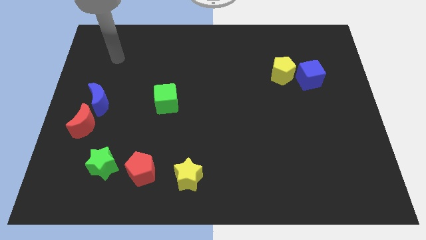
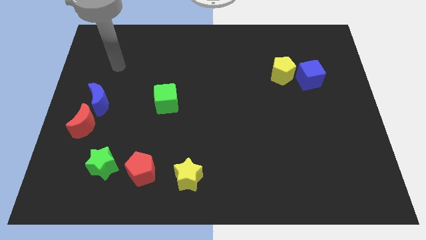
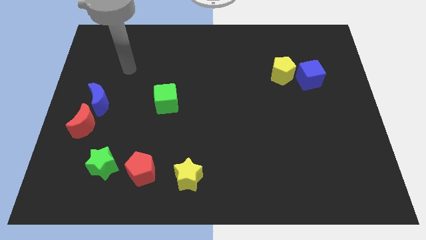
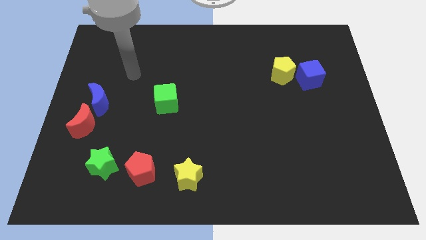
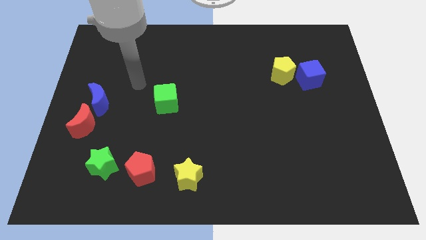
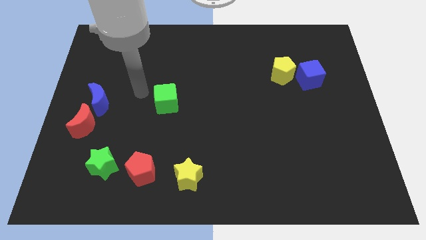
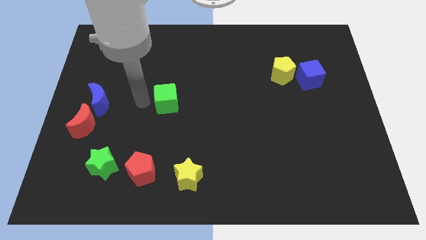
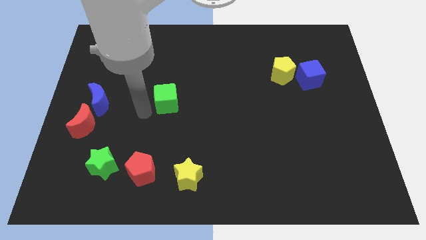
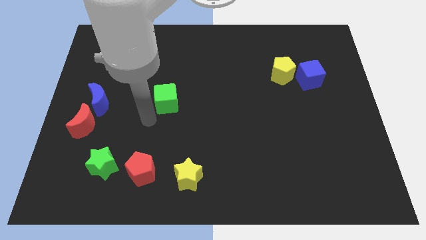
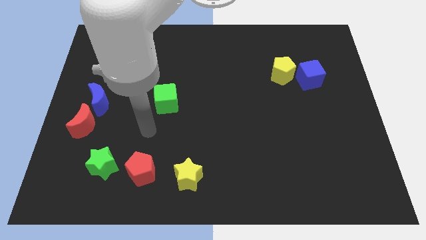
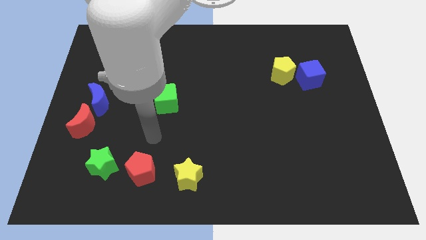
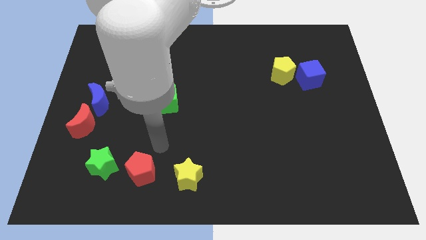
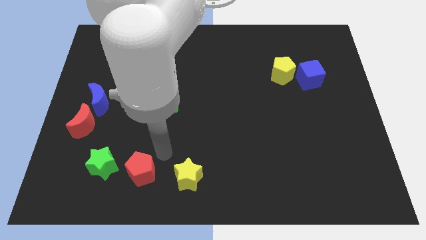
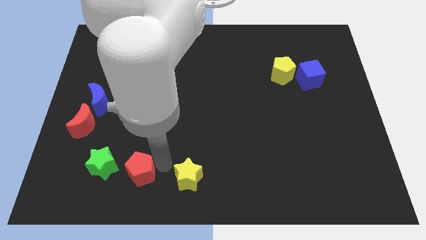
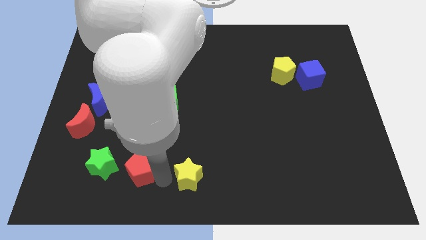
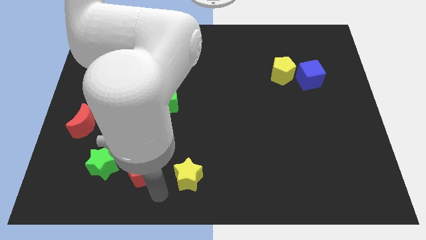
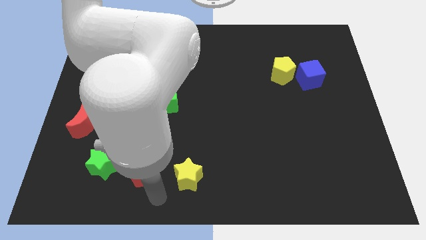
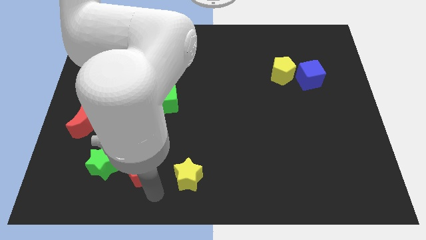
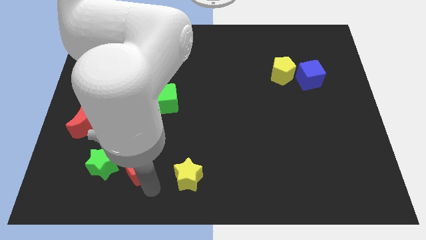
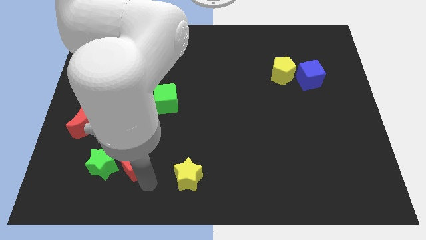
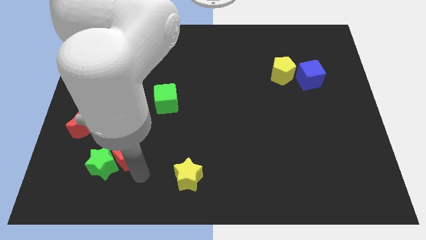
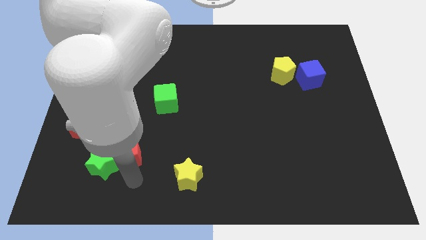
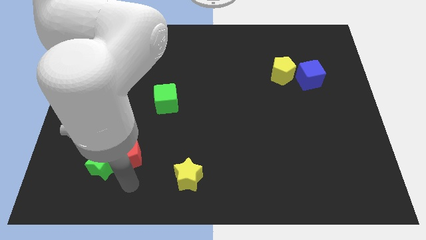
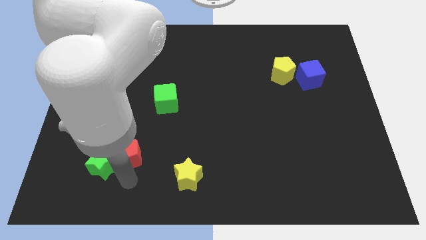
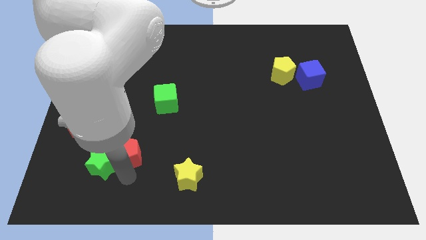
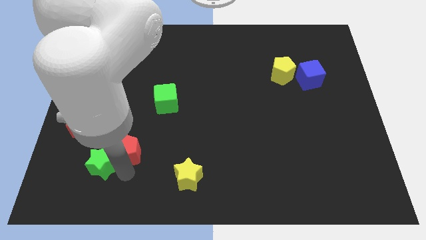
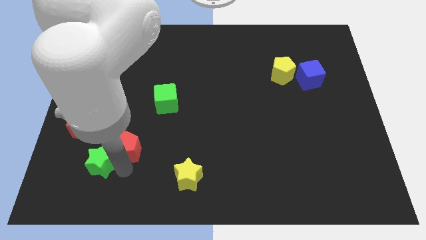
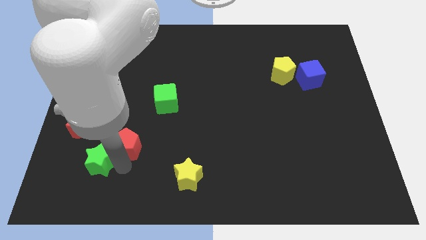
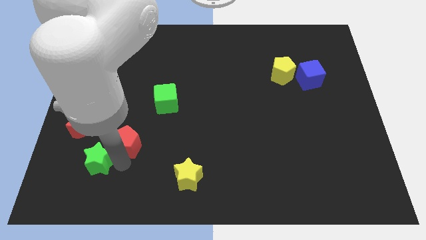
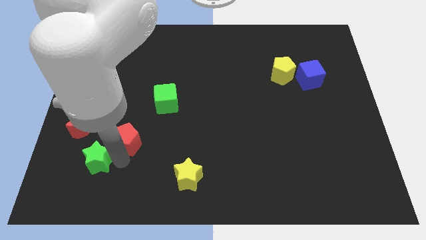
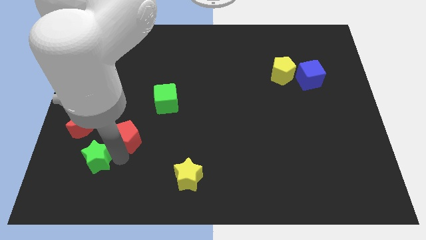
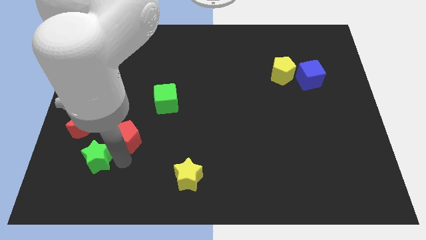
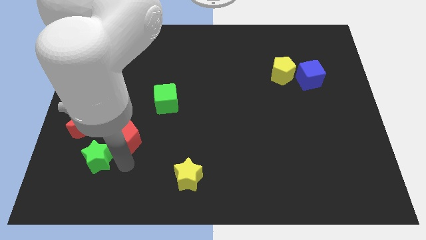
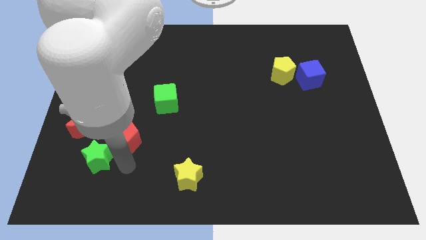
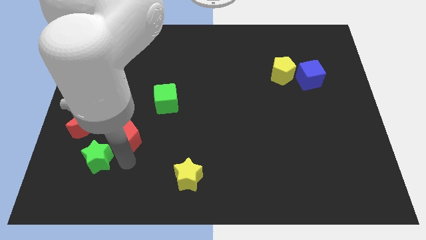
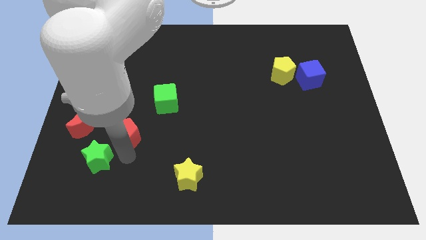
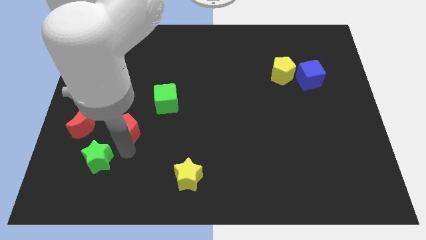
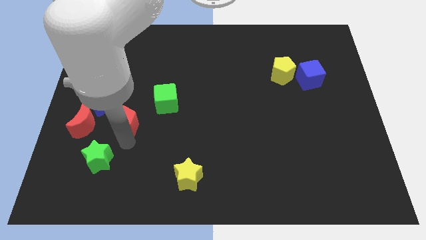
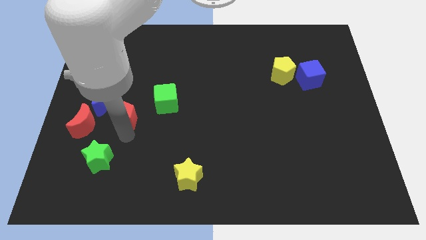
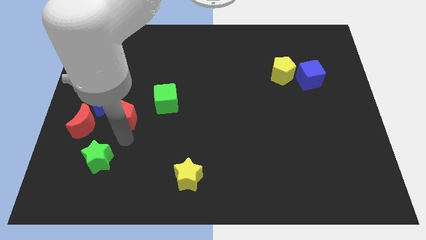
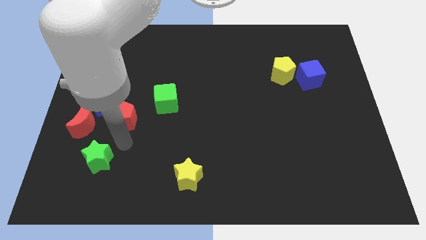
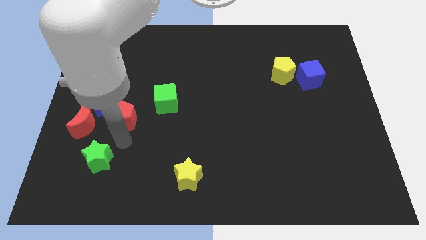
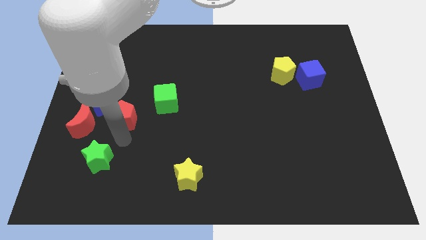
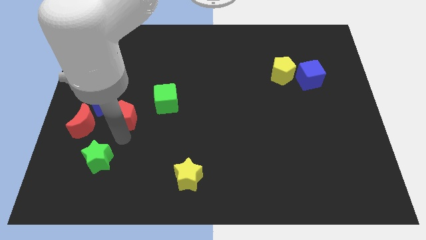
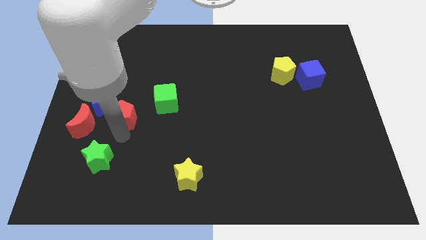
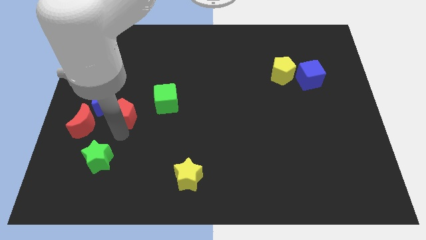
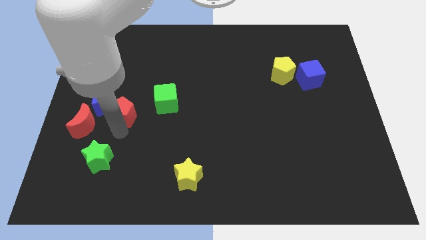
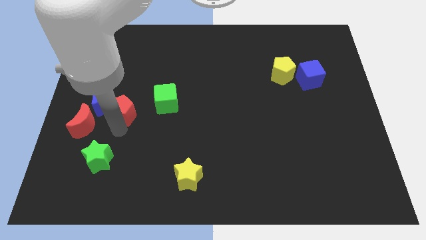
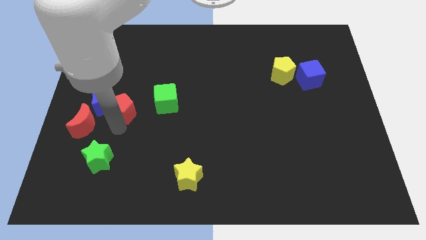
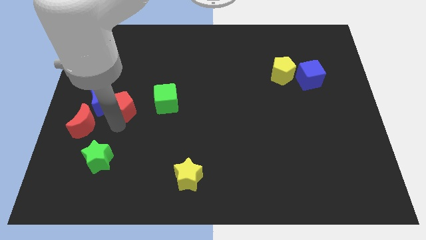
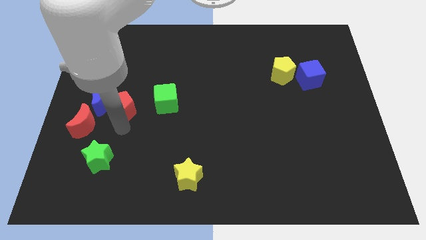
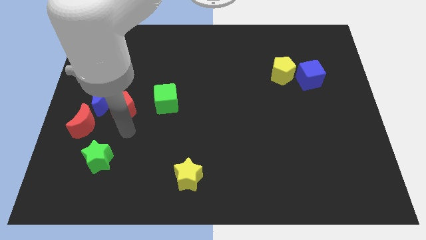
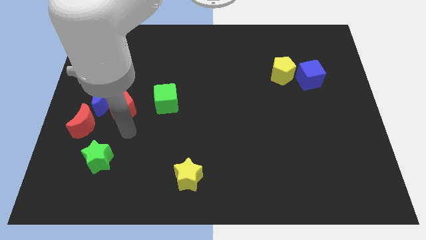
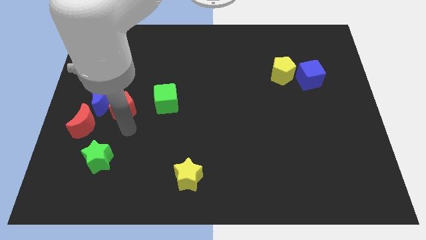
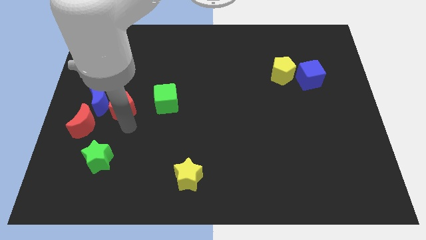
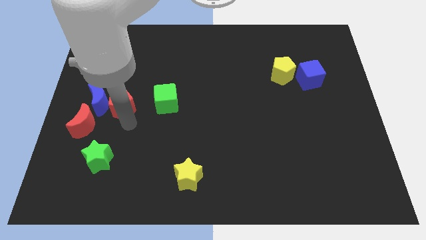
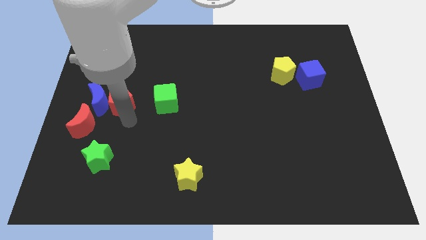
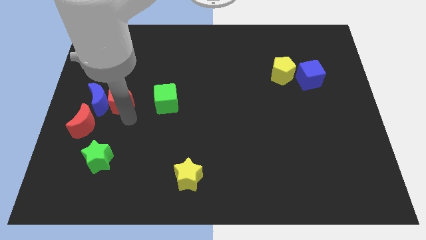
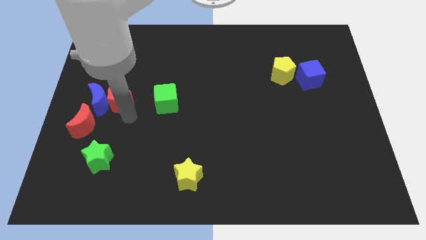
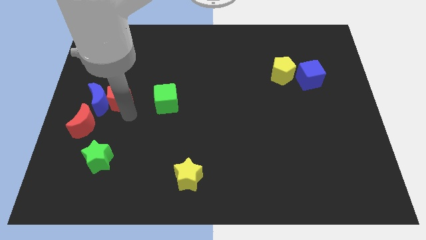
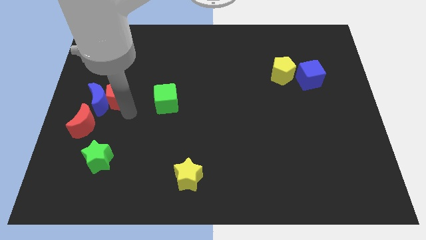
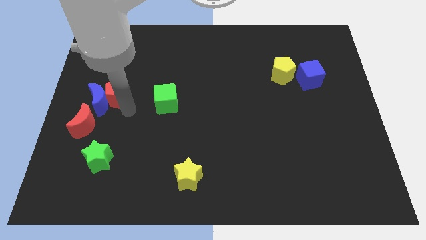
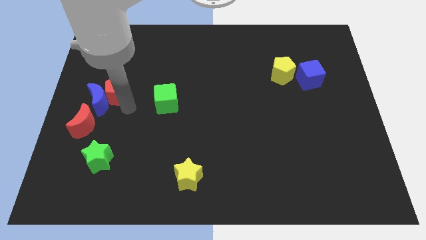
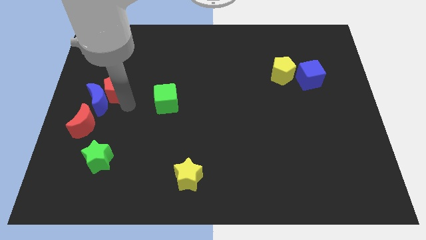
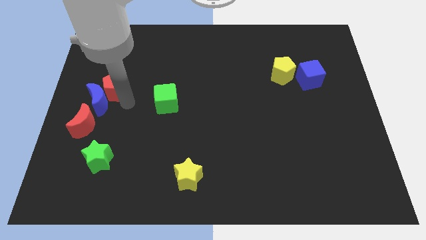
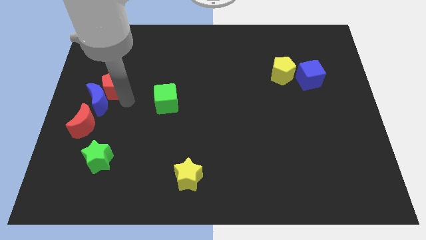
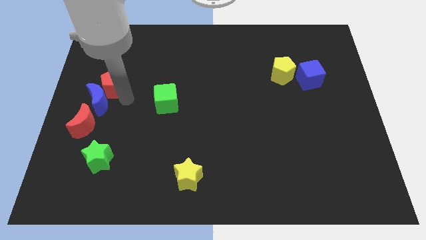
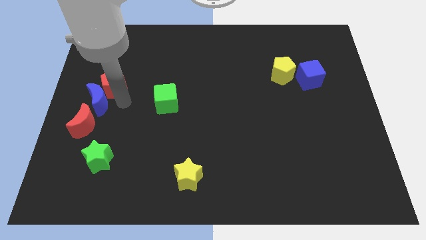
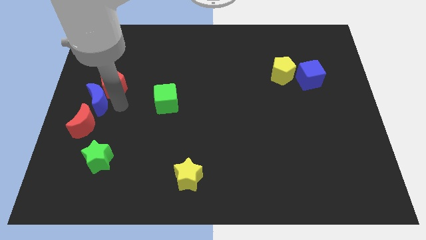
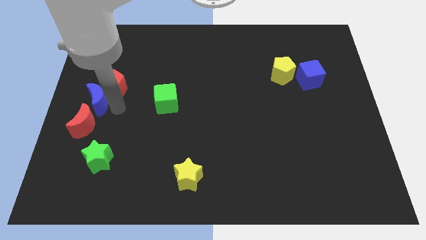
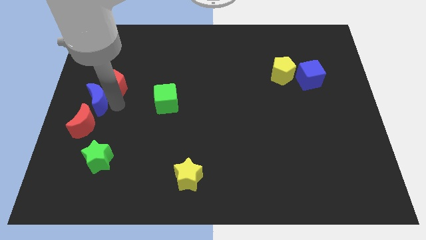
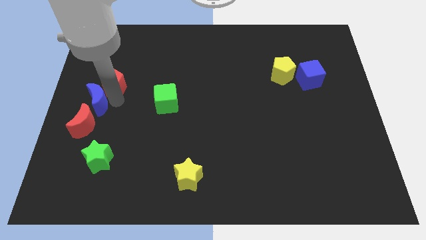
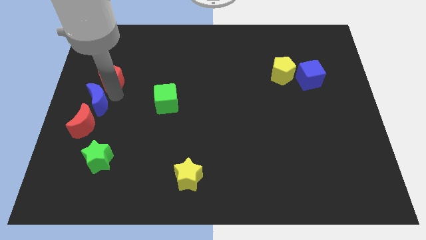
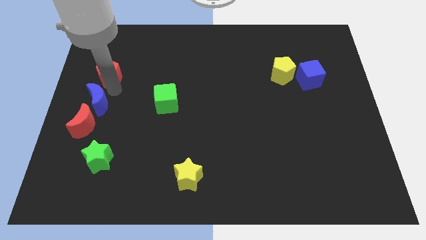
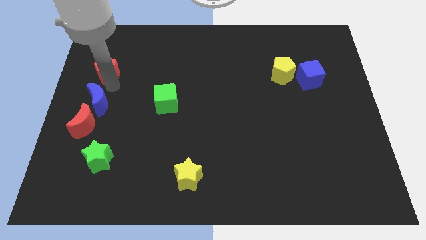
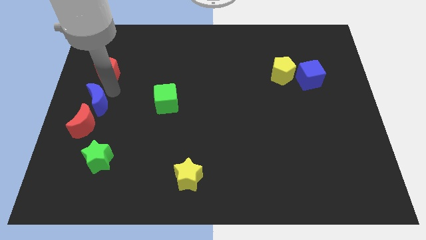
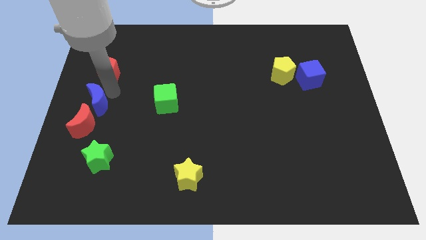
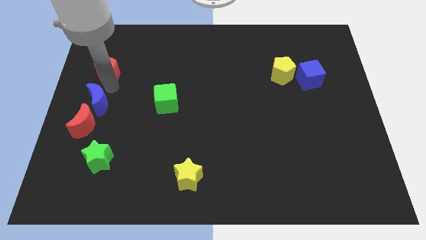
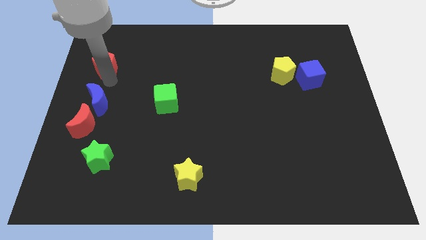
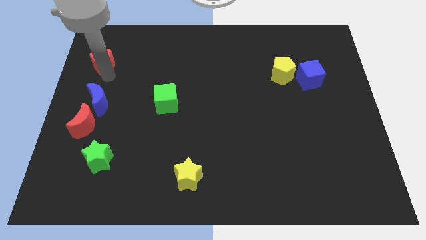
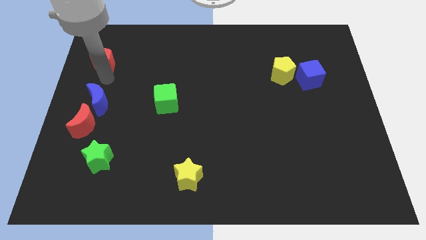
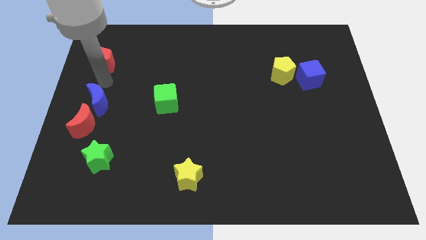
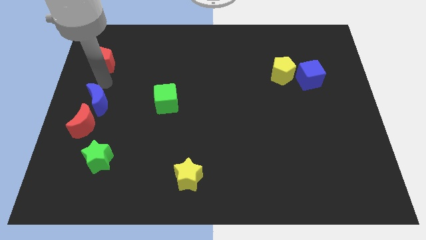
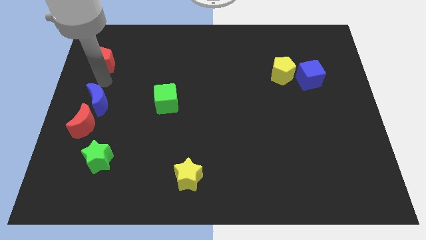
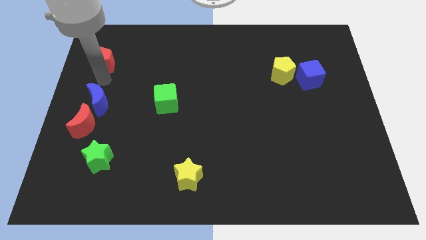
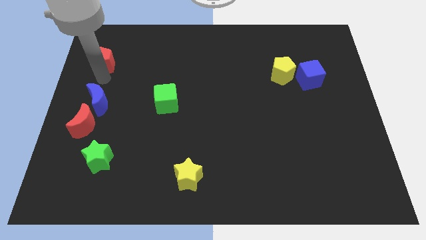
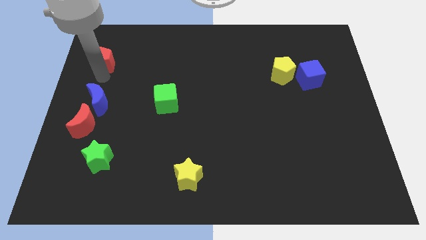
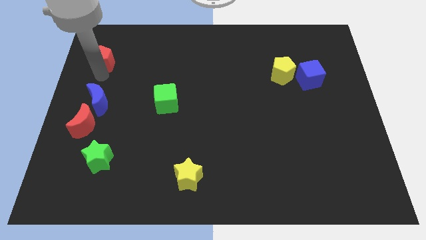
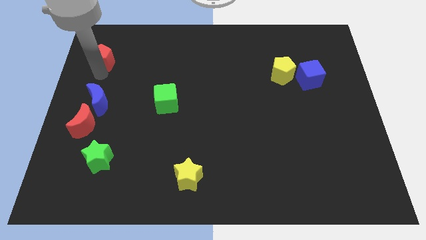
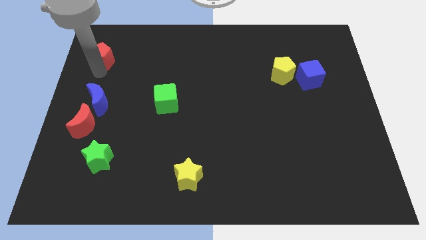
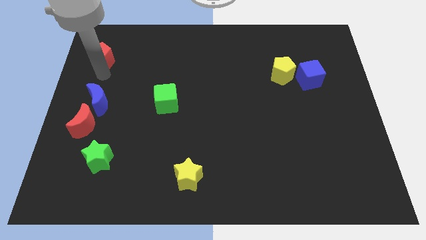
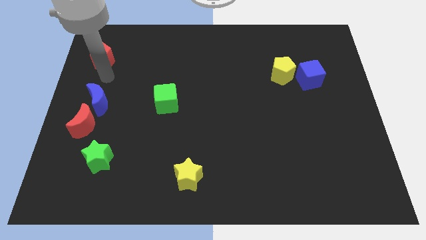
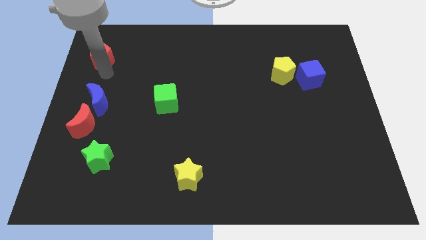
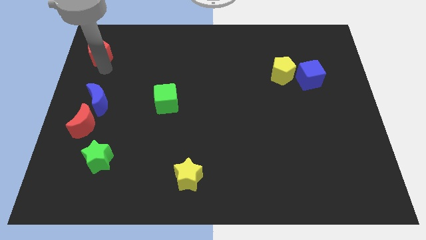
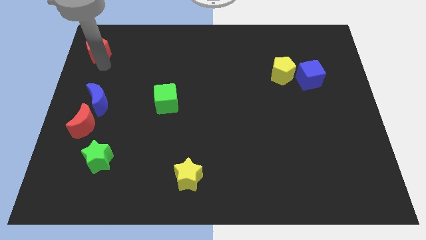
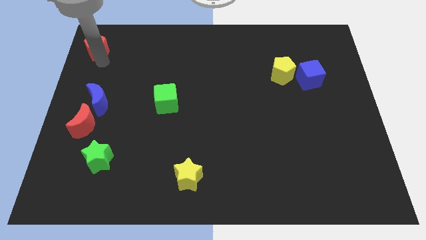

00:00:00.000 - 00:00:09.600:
push the red pentagon to the top left
